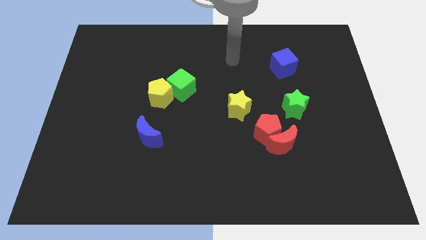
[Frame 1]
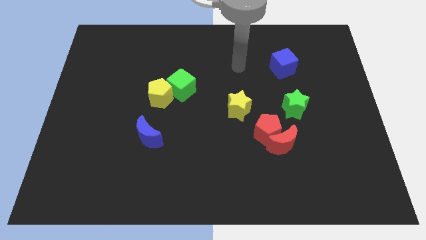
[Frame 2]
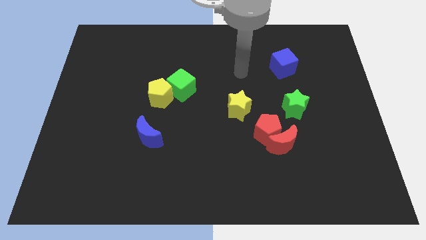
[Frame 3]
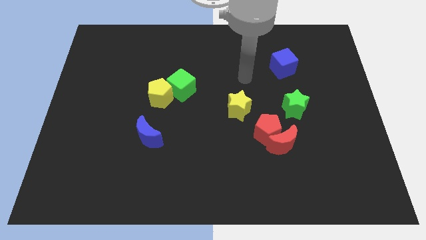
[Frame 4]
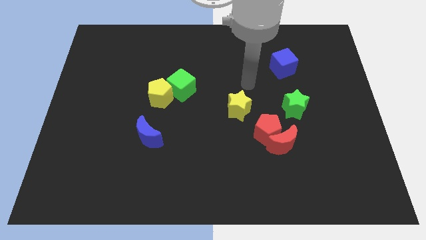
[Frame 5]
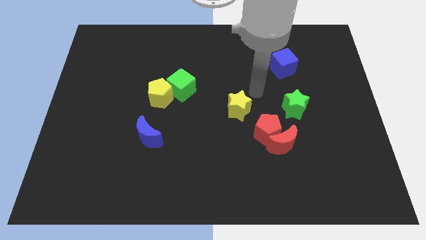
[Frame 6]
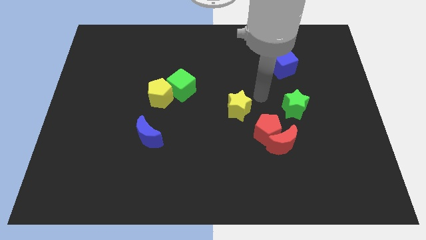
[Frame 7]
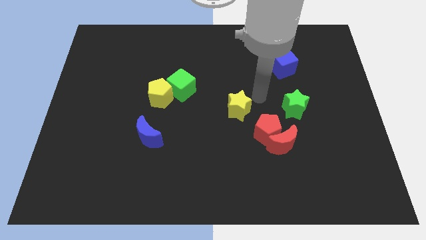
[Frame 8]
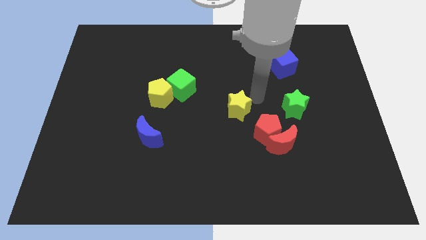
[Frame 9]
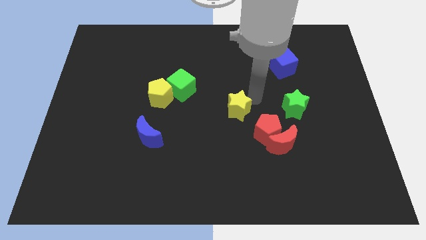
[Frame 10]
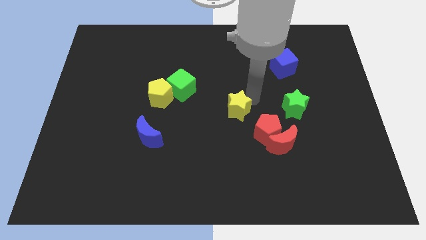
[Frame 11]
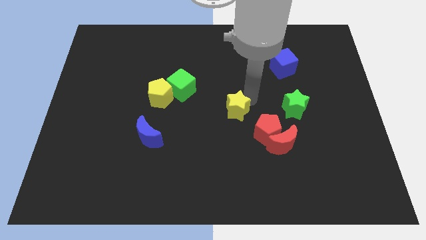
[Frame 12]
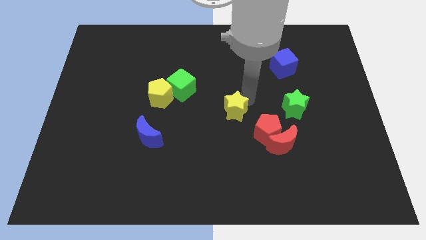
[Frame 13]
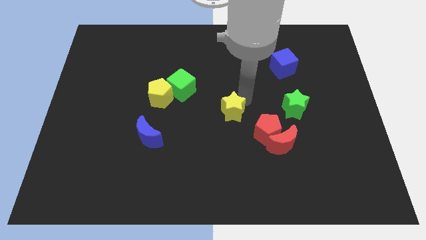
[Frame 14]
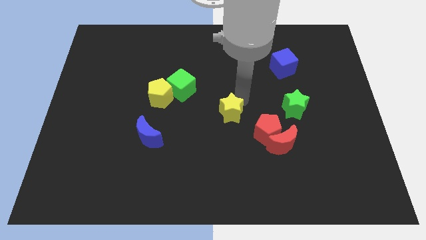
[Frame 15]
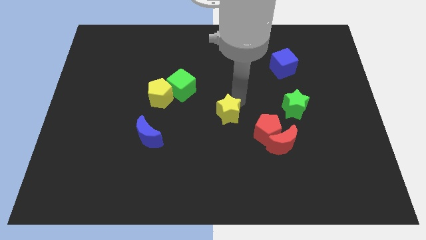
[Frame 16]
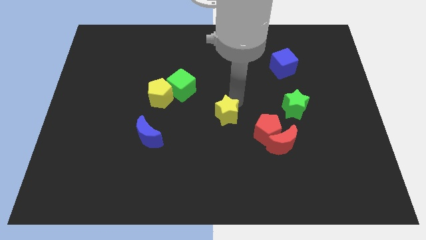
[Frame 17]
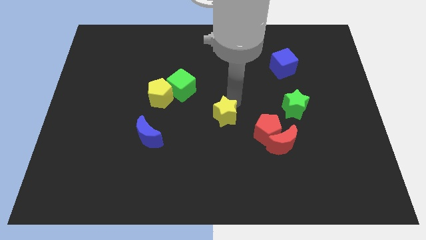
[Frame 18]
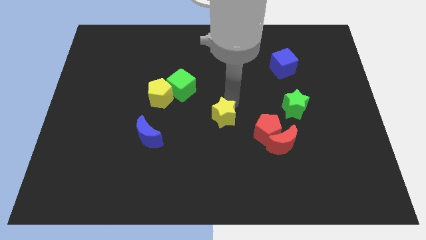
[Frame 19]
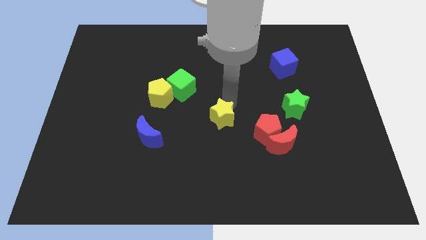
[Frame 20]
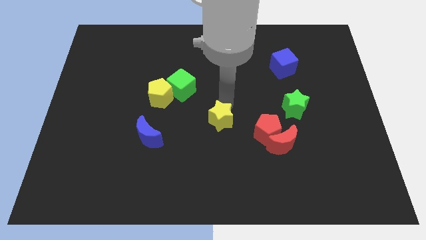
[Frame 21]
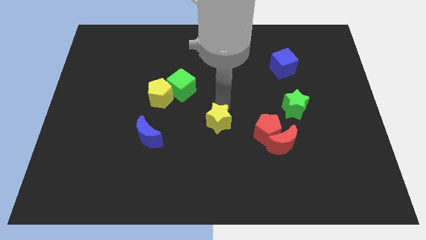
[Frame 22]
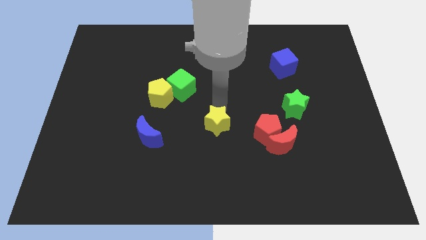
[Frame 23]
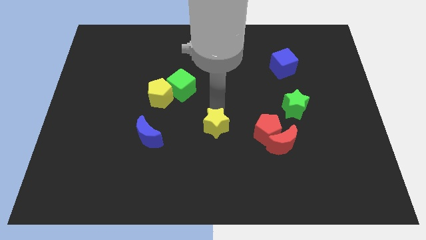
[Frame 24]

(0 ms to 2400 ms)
slightly move the yellow star diagonally down and left

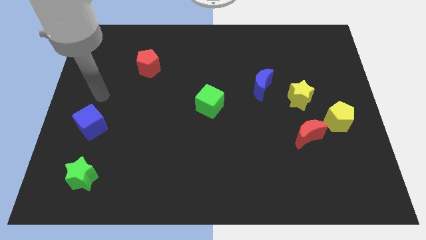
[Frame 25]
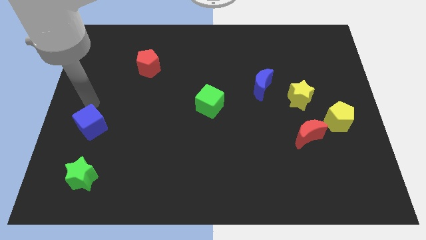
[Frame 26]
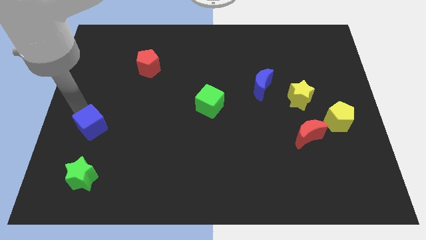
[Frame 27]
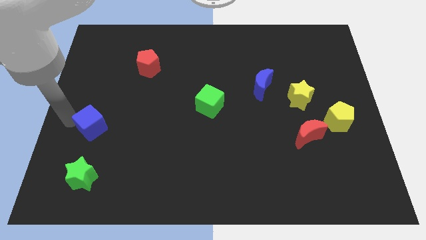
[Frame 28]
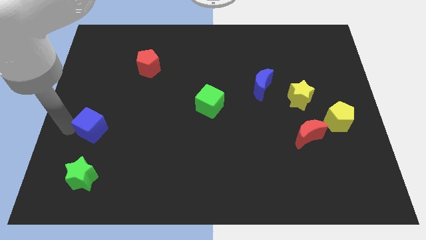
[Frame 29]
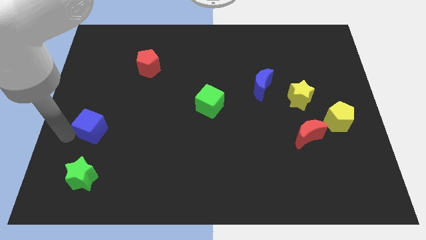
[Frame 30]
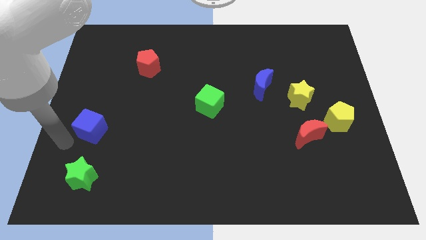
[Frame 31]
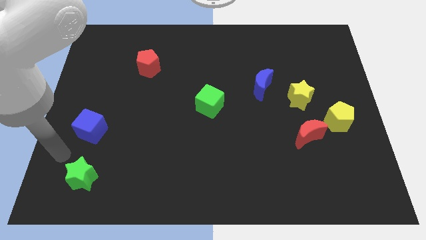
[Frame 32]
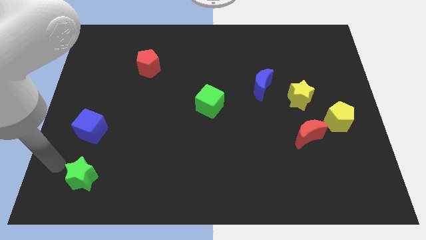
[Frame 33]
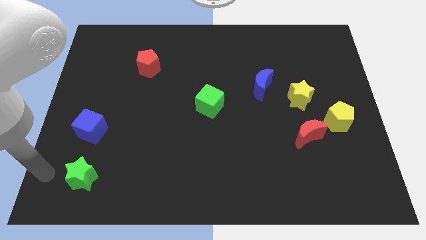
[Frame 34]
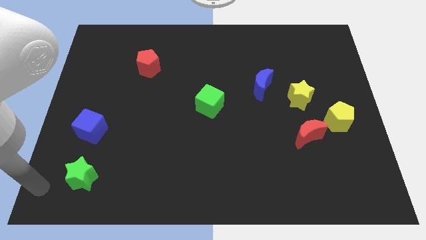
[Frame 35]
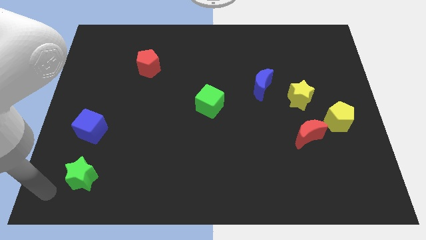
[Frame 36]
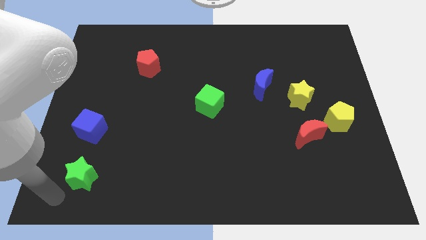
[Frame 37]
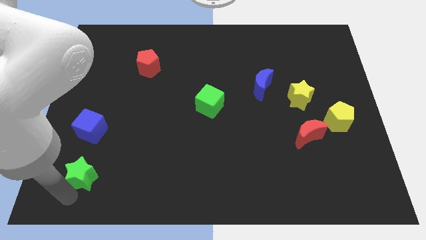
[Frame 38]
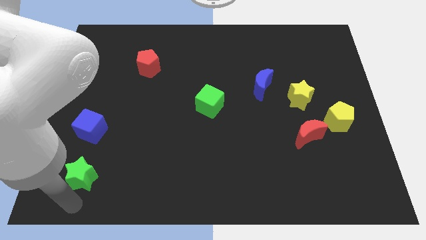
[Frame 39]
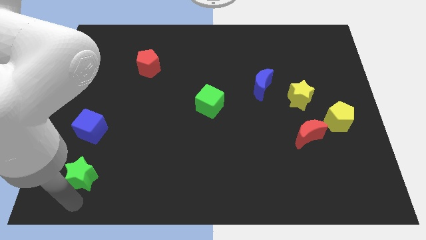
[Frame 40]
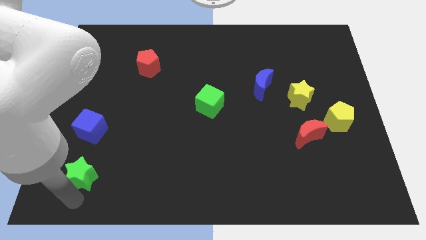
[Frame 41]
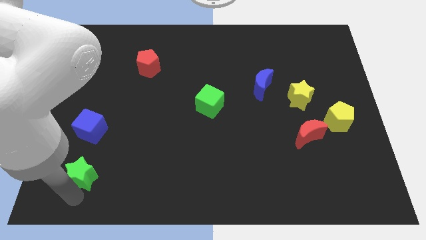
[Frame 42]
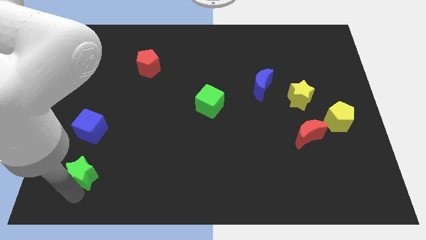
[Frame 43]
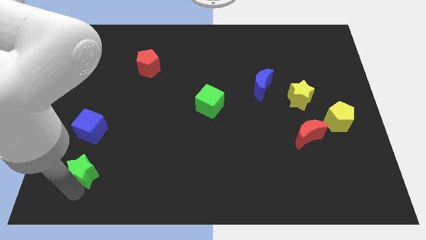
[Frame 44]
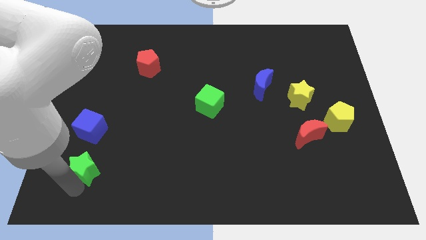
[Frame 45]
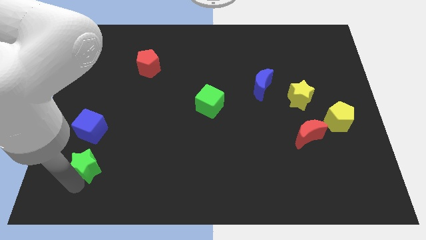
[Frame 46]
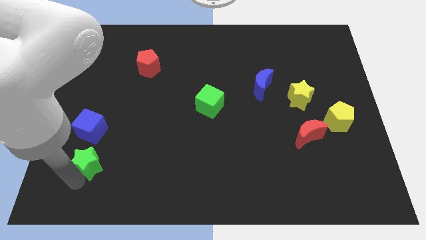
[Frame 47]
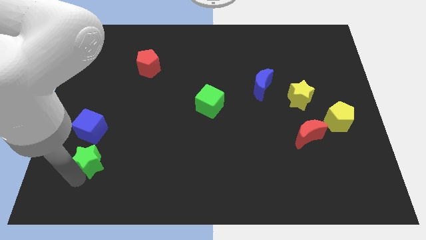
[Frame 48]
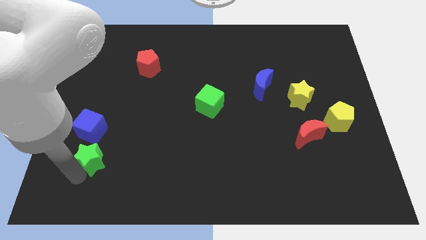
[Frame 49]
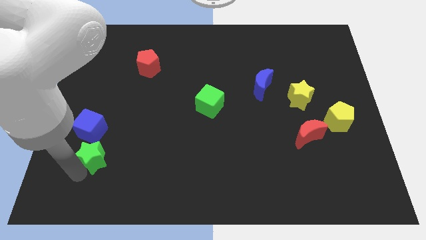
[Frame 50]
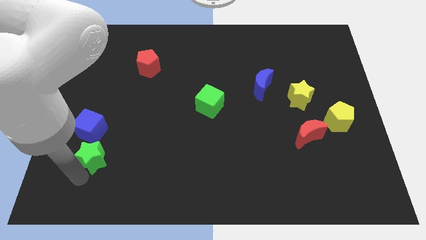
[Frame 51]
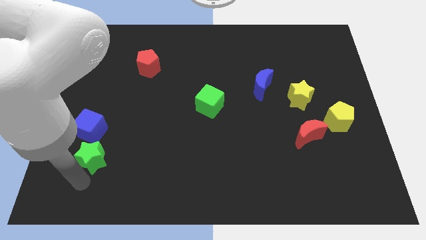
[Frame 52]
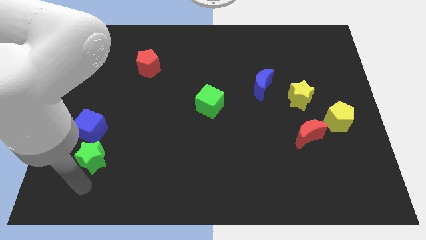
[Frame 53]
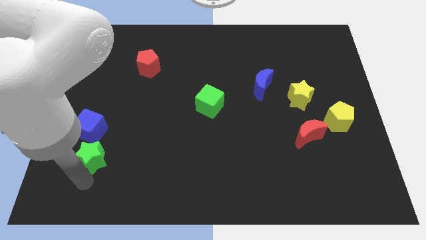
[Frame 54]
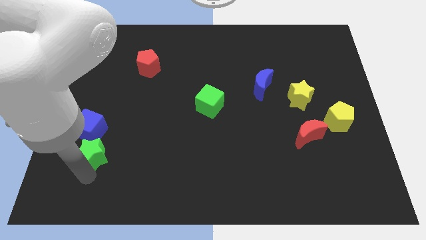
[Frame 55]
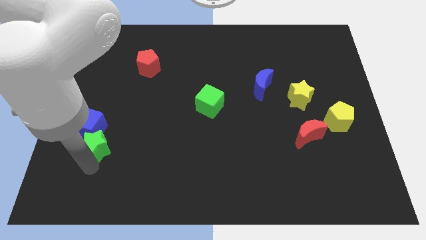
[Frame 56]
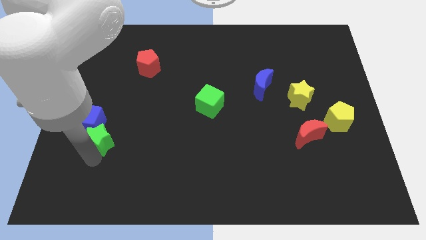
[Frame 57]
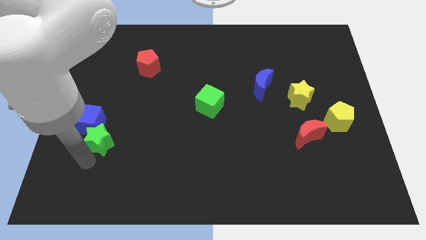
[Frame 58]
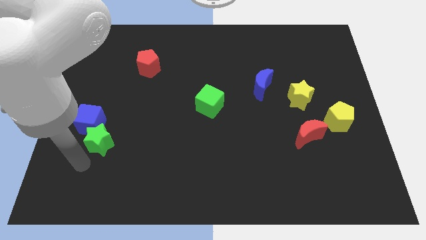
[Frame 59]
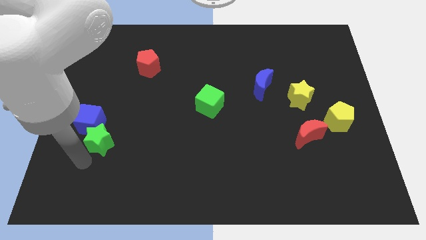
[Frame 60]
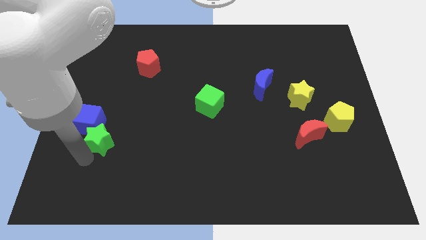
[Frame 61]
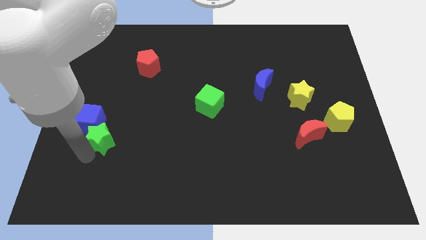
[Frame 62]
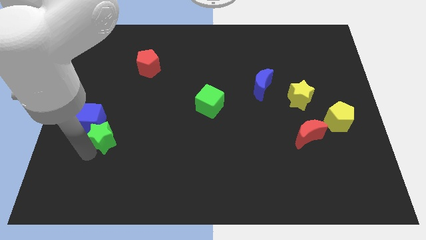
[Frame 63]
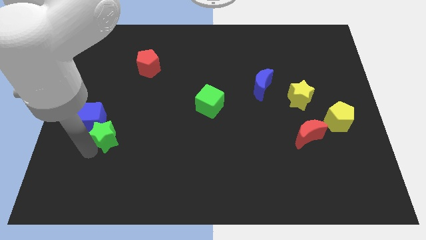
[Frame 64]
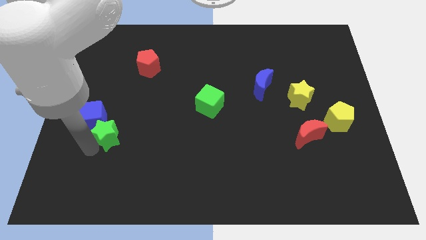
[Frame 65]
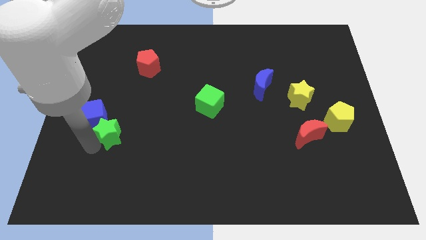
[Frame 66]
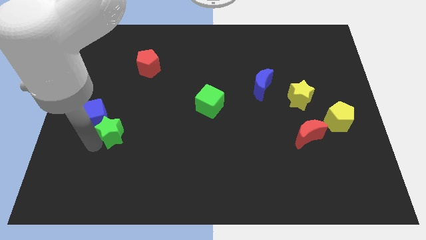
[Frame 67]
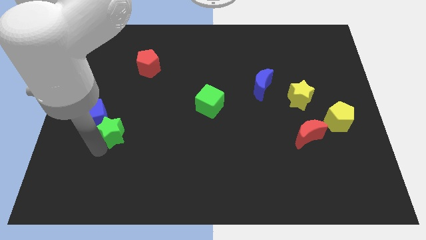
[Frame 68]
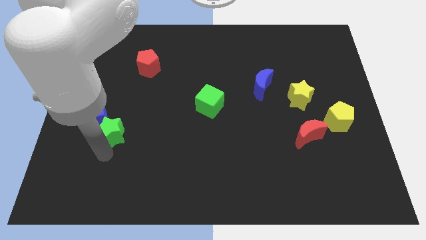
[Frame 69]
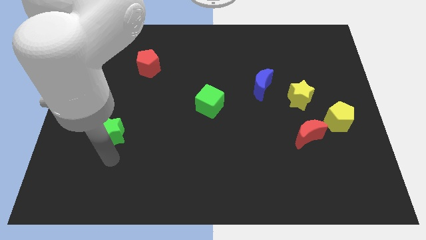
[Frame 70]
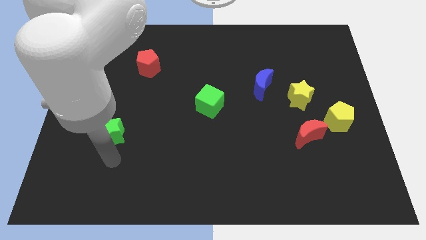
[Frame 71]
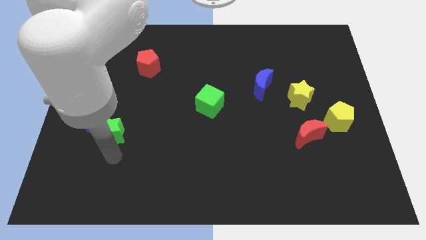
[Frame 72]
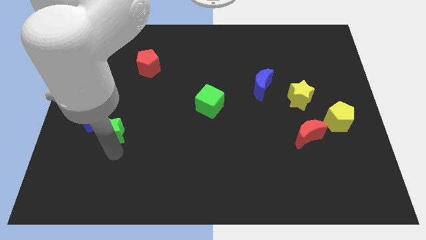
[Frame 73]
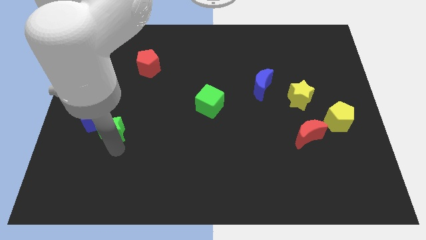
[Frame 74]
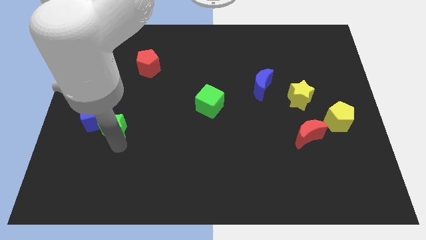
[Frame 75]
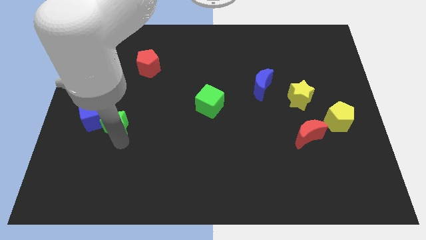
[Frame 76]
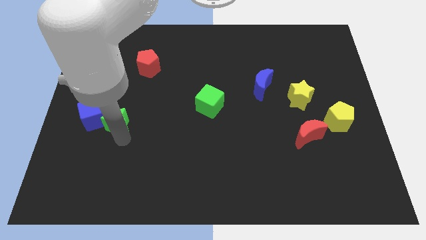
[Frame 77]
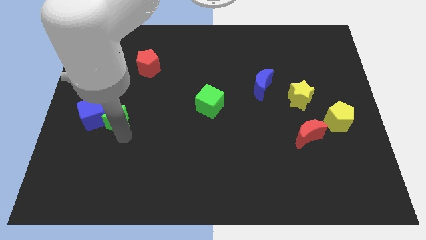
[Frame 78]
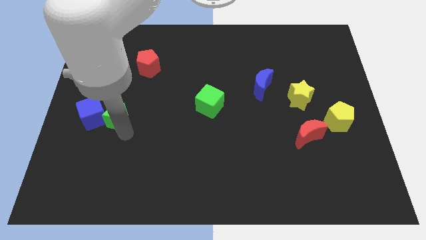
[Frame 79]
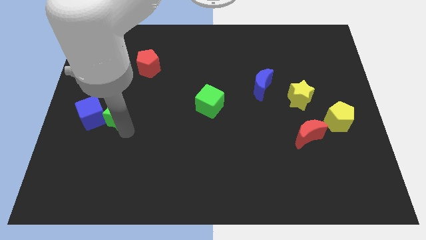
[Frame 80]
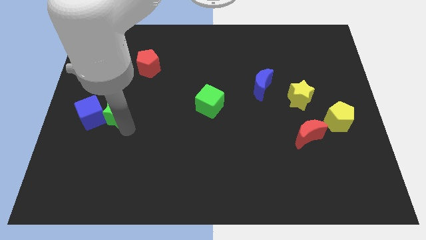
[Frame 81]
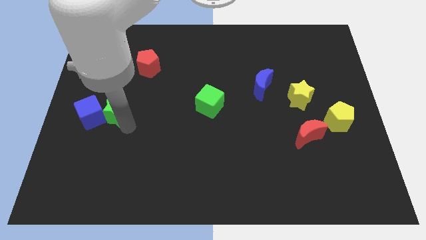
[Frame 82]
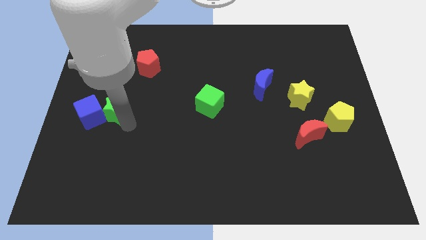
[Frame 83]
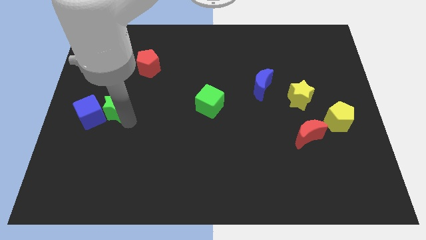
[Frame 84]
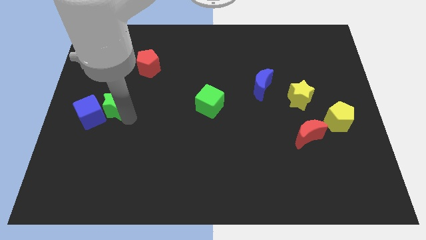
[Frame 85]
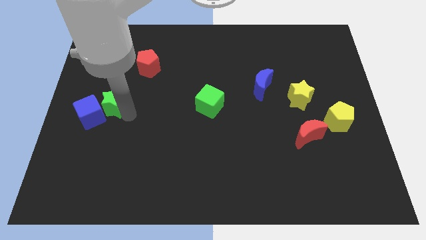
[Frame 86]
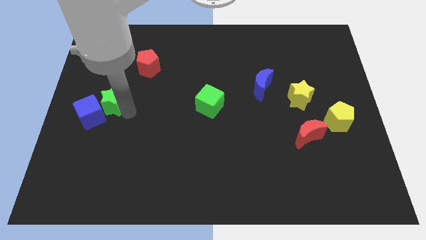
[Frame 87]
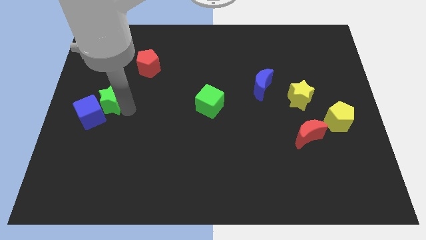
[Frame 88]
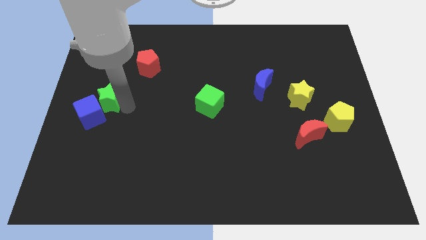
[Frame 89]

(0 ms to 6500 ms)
push the green star up
